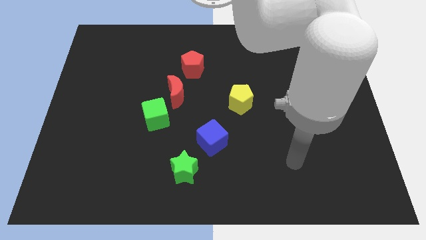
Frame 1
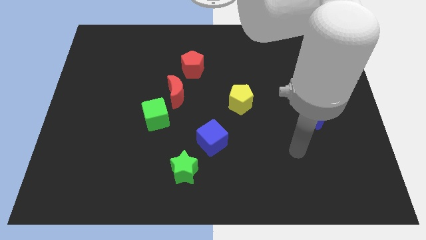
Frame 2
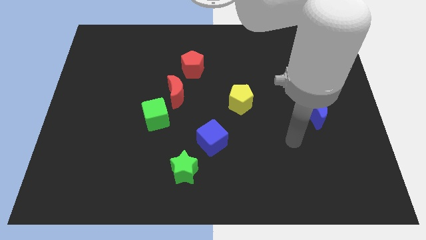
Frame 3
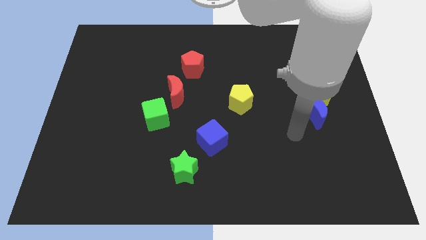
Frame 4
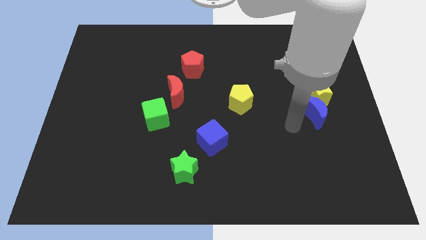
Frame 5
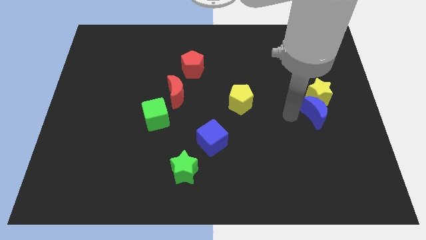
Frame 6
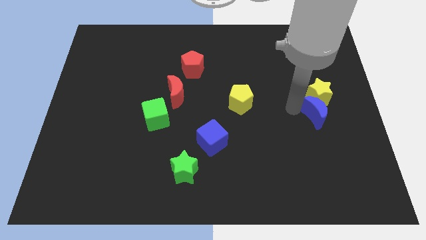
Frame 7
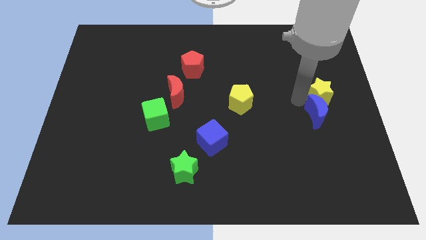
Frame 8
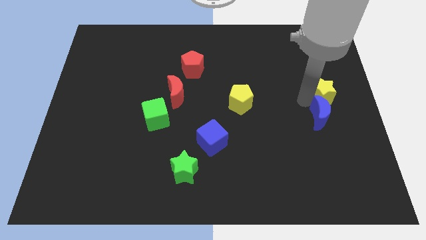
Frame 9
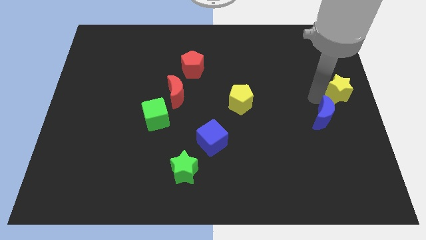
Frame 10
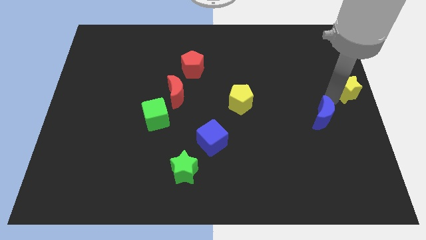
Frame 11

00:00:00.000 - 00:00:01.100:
pull the blue moon apart from the yellow star

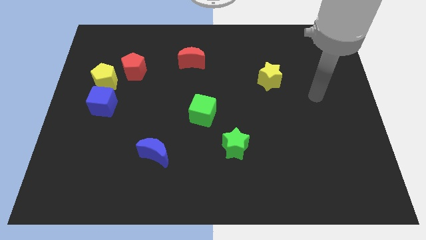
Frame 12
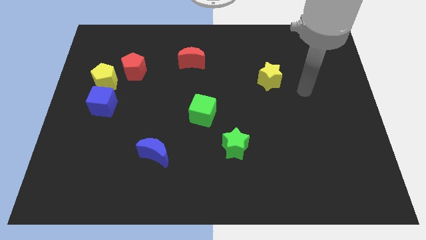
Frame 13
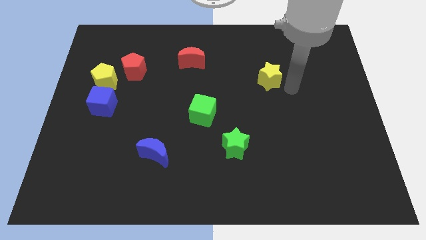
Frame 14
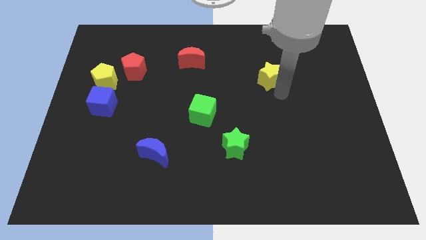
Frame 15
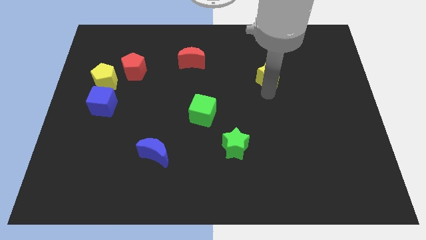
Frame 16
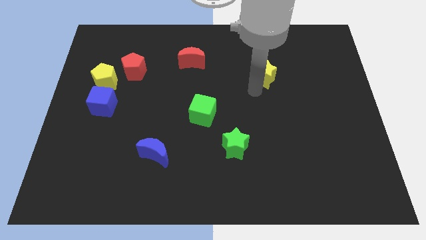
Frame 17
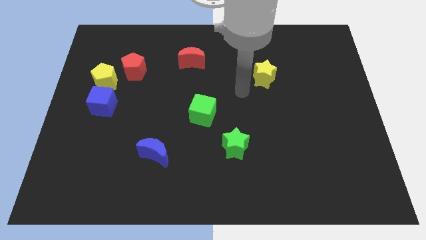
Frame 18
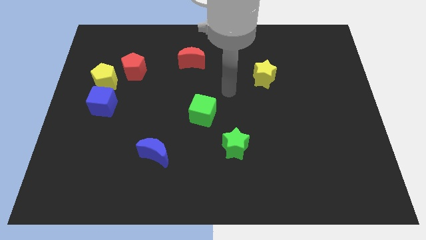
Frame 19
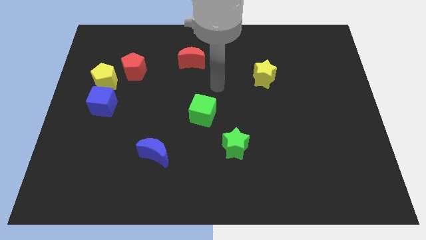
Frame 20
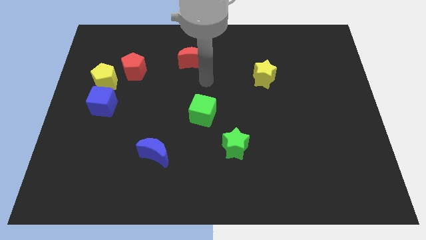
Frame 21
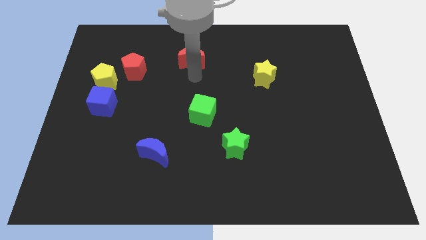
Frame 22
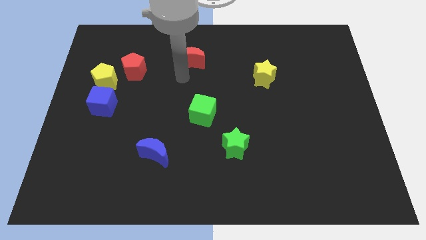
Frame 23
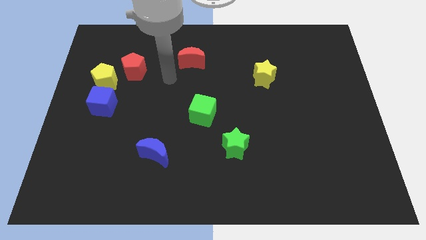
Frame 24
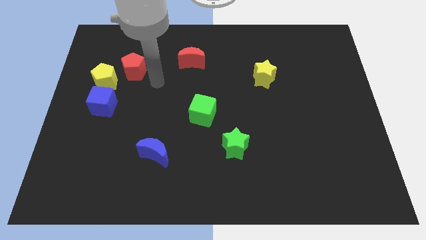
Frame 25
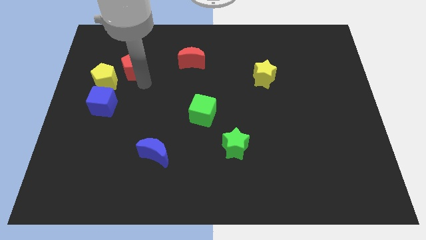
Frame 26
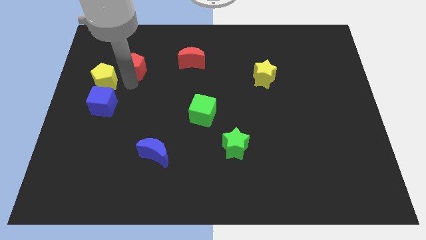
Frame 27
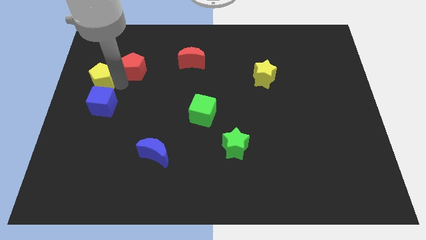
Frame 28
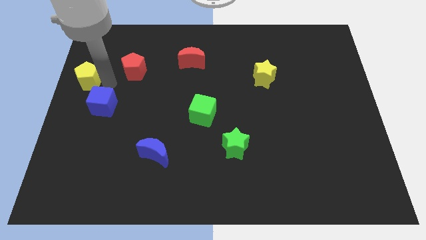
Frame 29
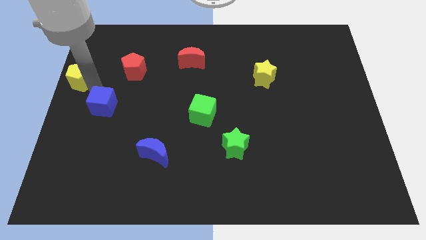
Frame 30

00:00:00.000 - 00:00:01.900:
separate the blue cube from the yellow pentagon

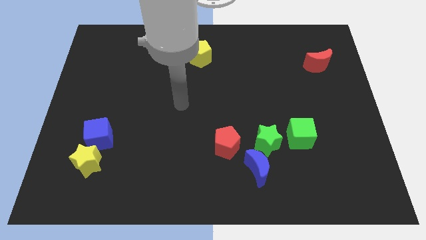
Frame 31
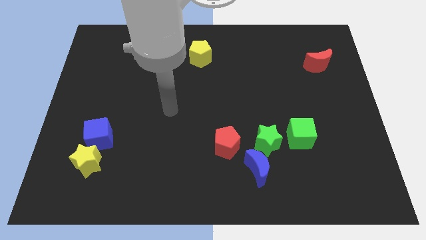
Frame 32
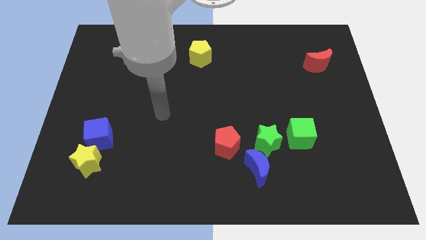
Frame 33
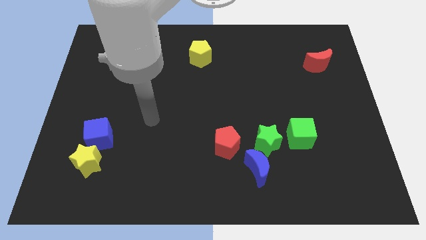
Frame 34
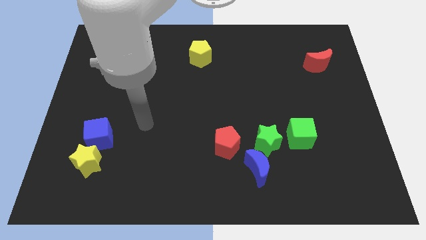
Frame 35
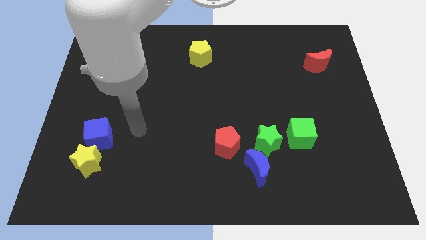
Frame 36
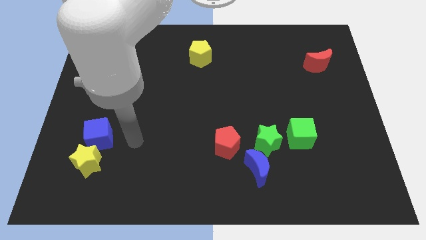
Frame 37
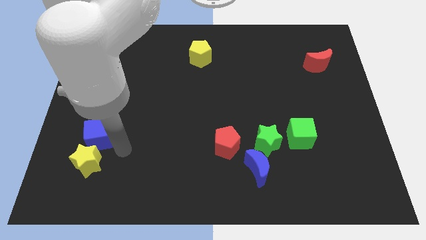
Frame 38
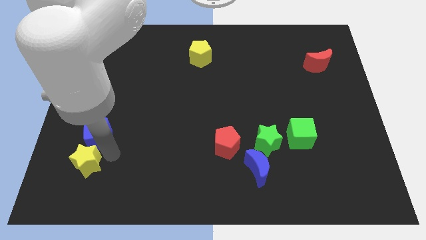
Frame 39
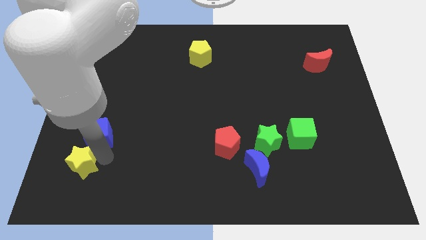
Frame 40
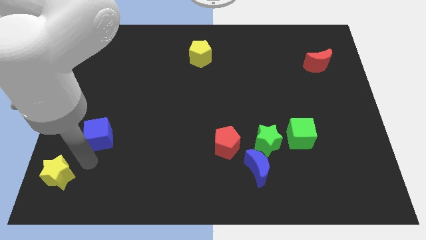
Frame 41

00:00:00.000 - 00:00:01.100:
separate the blue cube from the yellow star

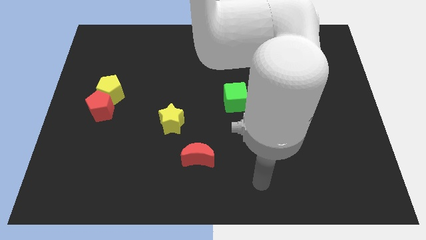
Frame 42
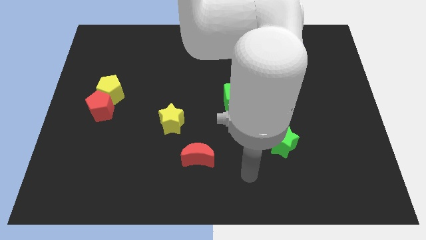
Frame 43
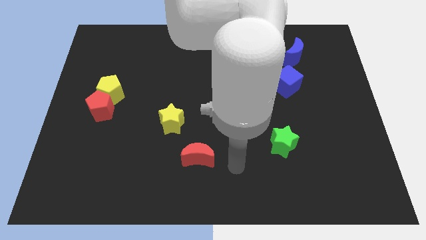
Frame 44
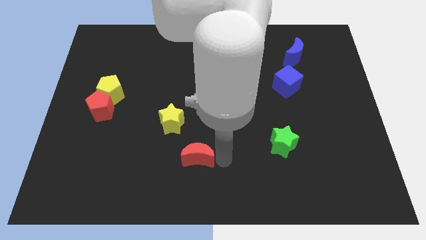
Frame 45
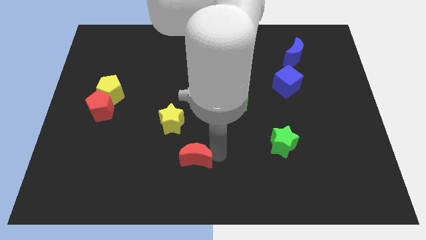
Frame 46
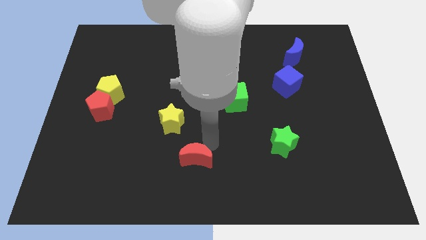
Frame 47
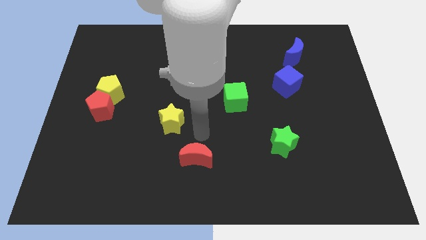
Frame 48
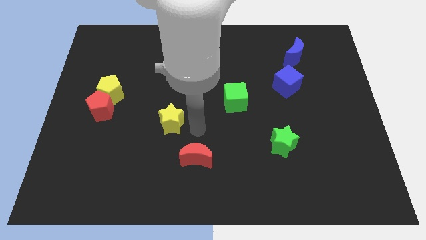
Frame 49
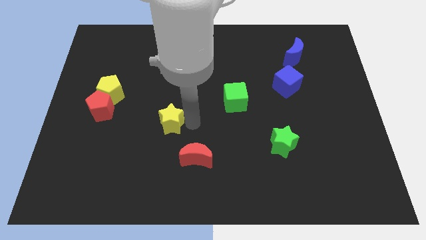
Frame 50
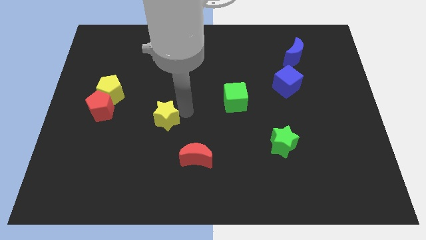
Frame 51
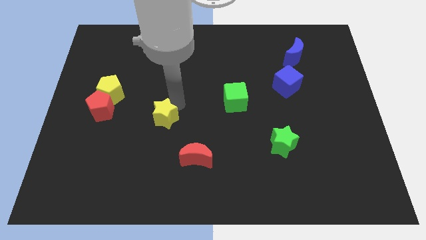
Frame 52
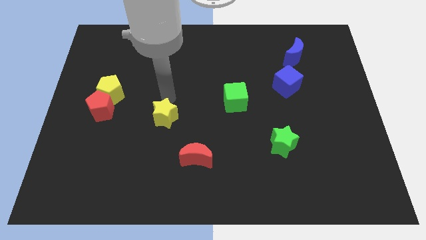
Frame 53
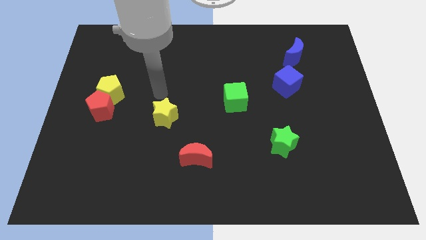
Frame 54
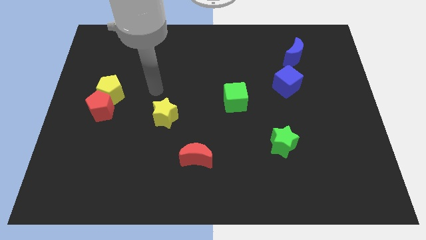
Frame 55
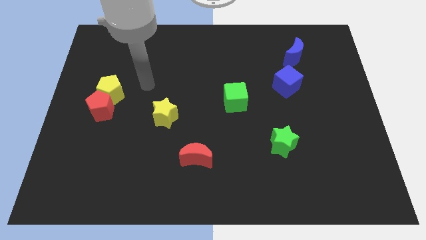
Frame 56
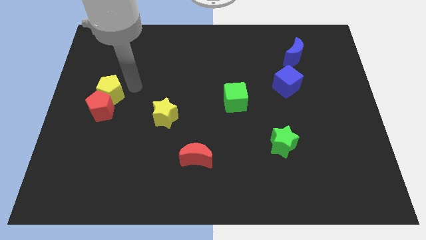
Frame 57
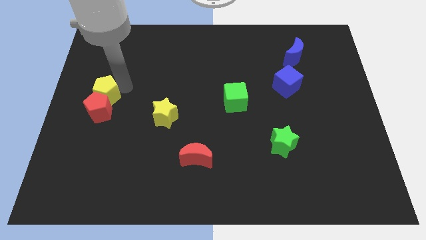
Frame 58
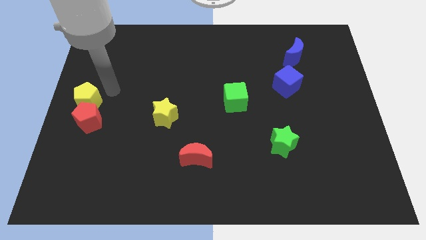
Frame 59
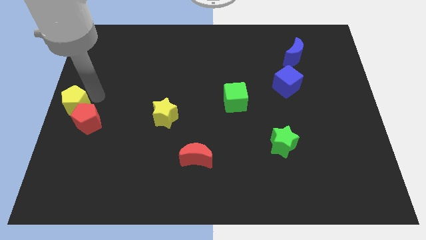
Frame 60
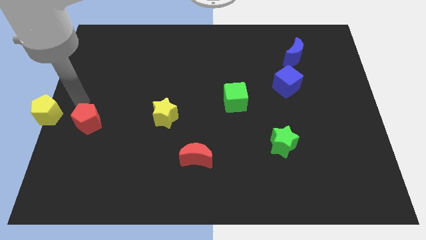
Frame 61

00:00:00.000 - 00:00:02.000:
move the red pentagon away from the yellow pentagon

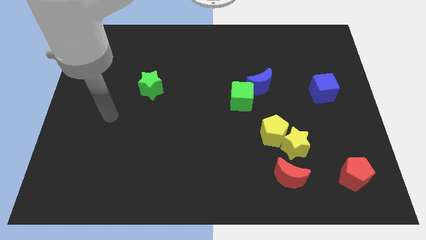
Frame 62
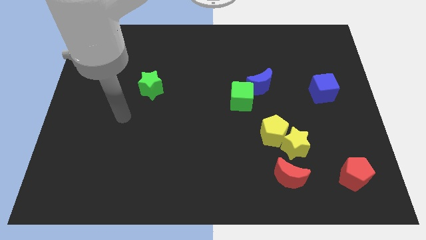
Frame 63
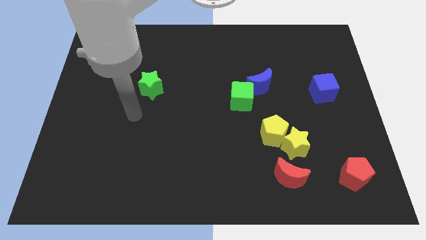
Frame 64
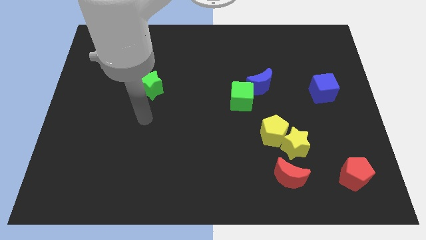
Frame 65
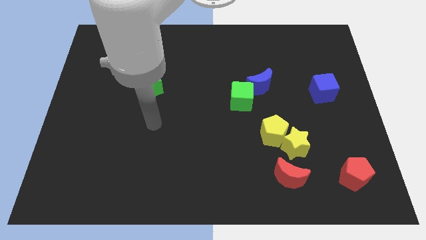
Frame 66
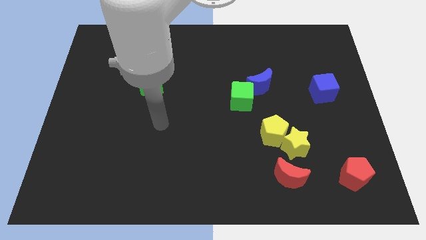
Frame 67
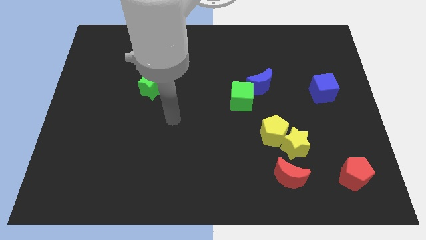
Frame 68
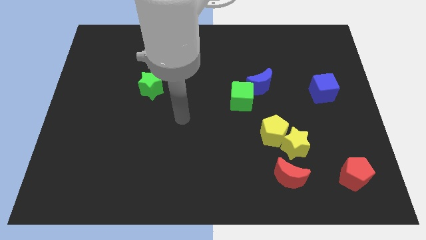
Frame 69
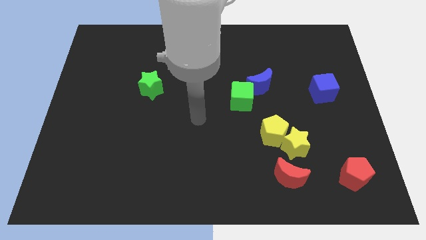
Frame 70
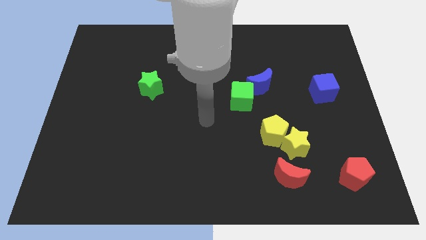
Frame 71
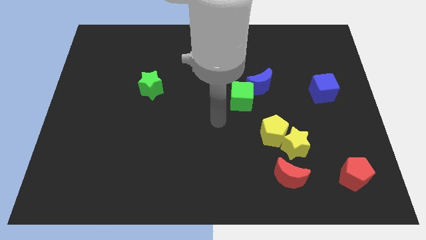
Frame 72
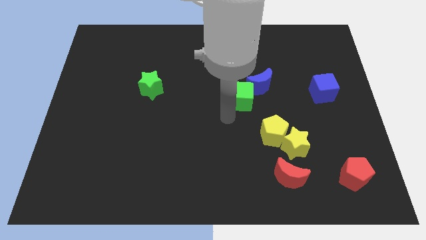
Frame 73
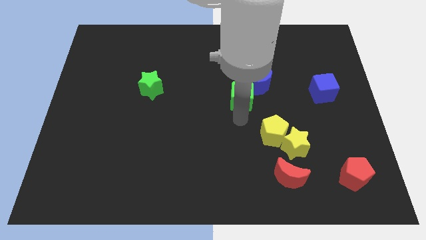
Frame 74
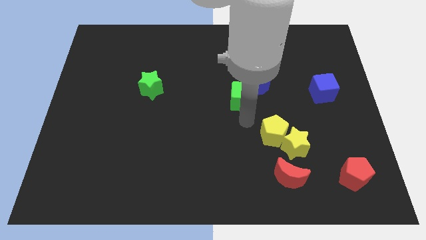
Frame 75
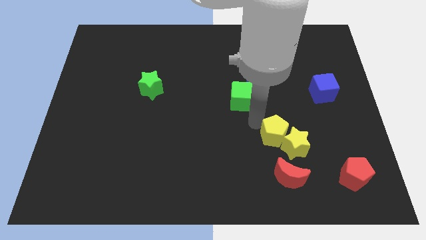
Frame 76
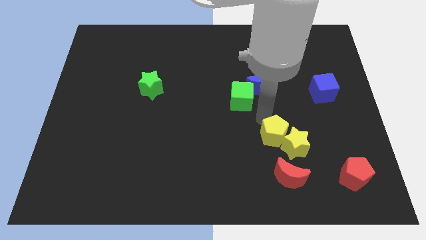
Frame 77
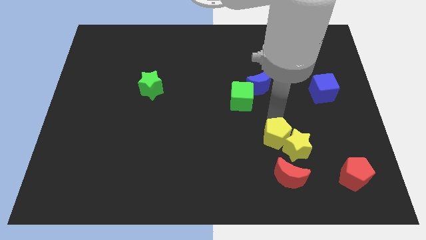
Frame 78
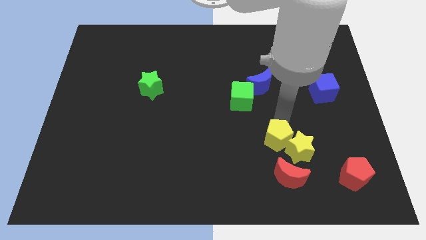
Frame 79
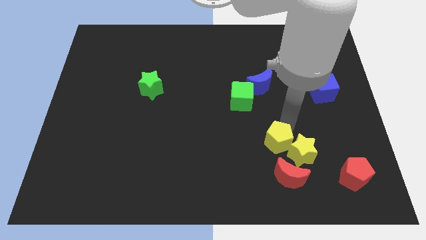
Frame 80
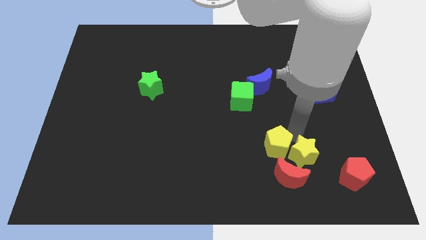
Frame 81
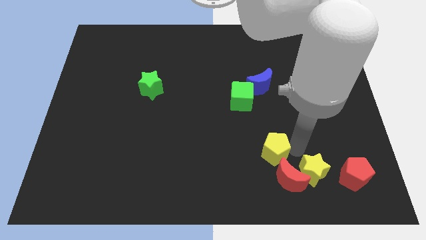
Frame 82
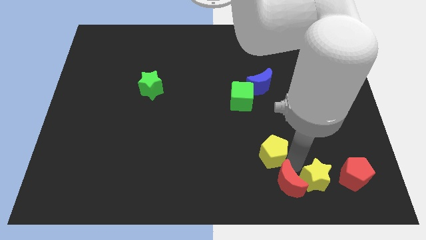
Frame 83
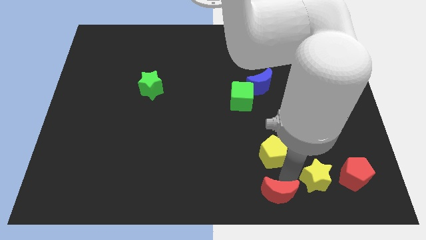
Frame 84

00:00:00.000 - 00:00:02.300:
move the yellow pentagon away from the yellow star

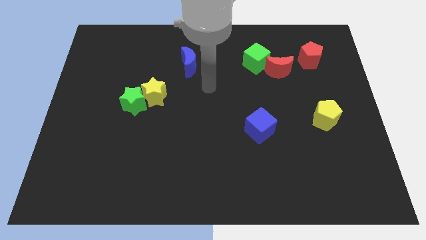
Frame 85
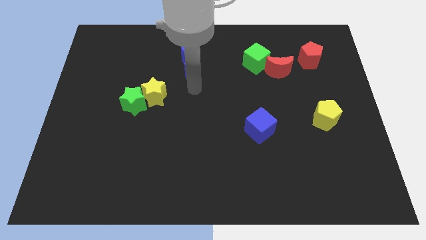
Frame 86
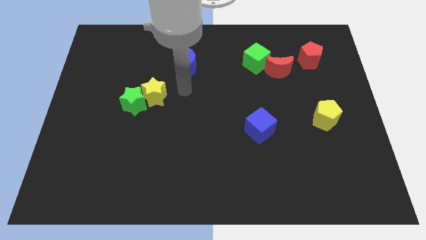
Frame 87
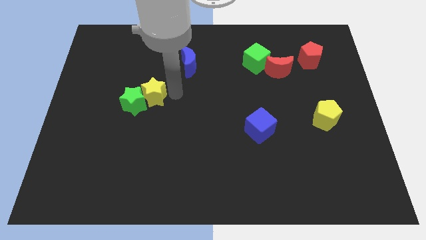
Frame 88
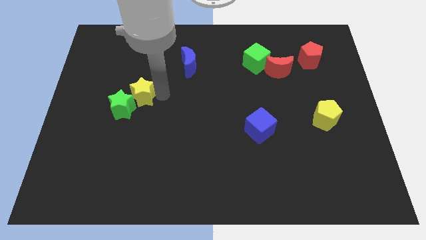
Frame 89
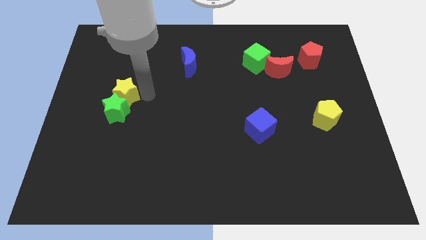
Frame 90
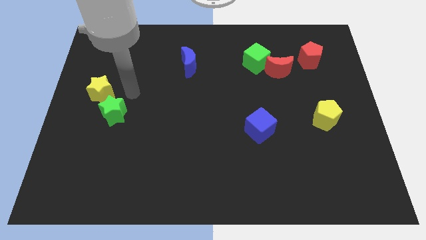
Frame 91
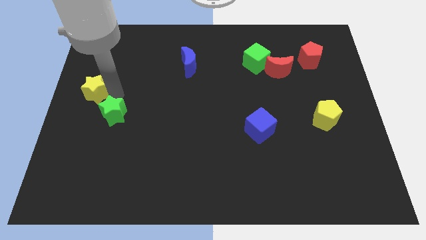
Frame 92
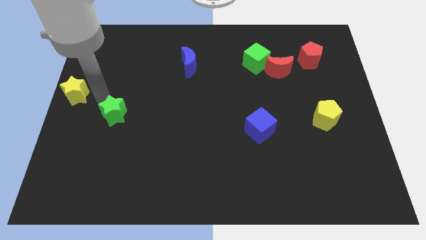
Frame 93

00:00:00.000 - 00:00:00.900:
pull the green star apart from the yellow star
